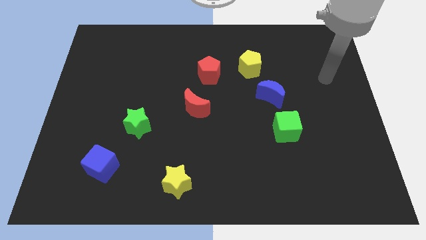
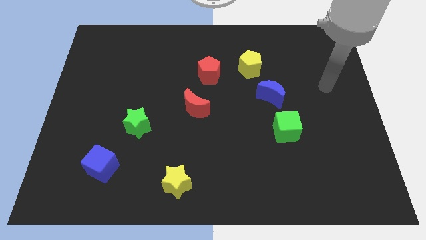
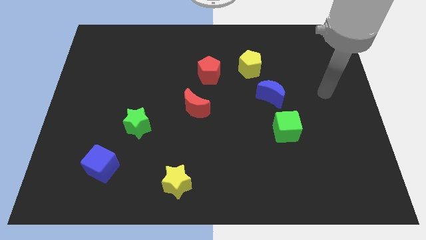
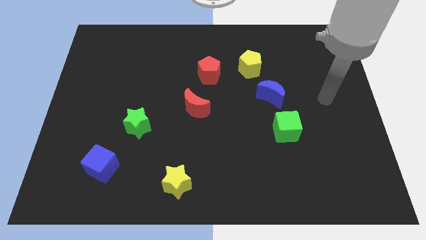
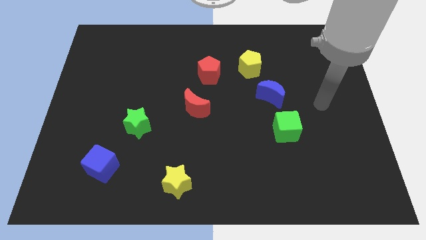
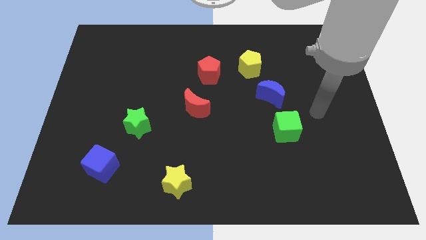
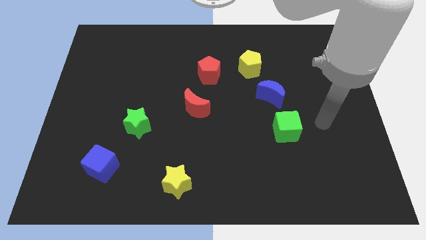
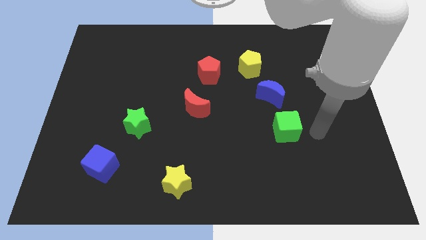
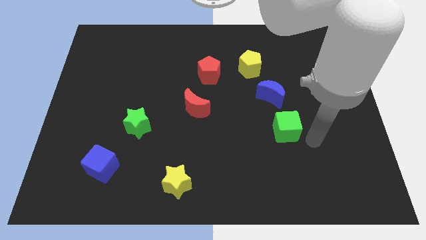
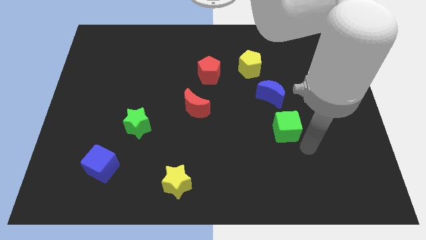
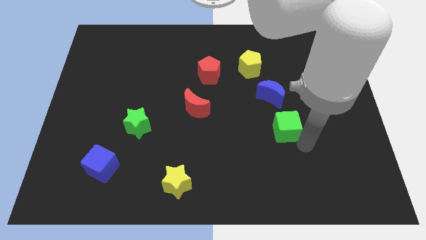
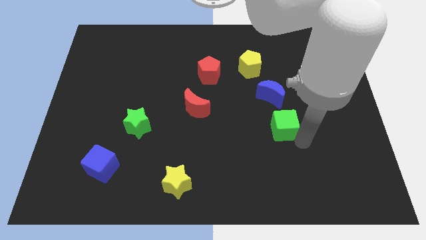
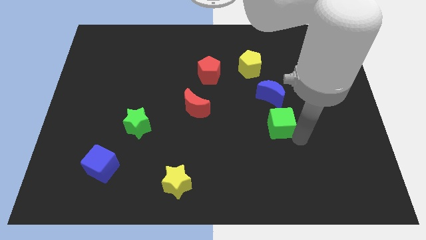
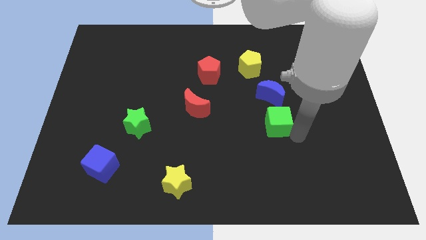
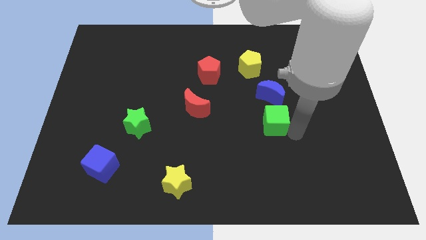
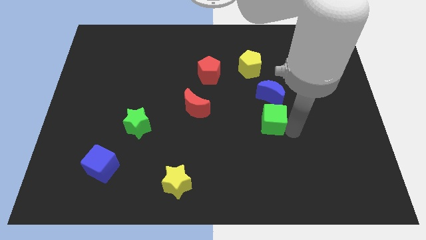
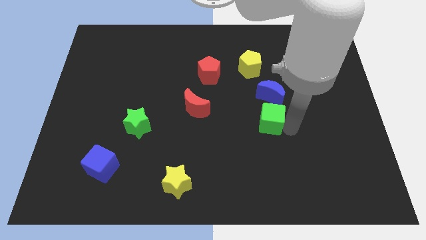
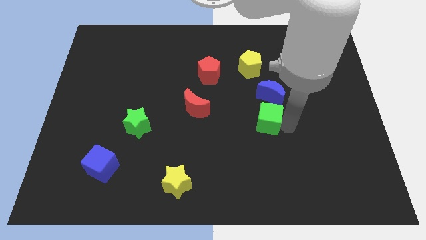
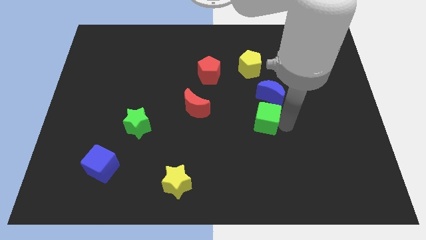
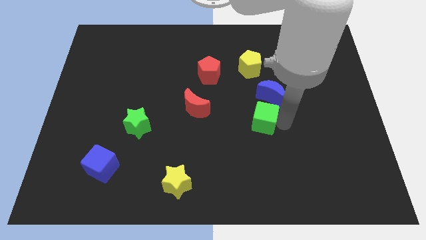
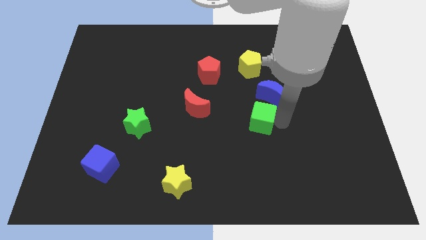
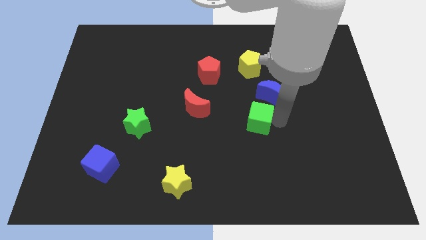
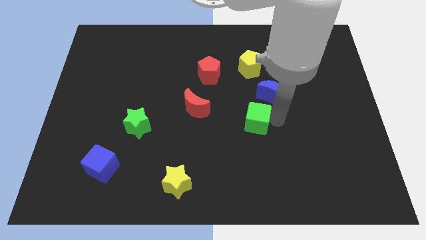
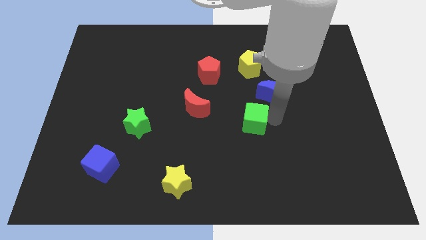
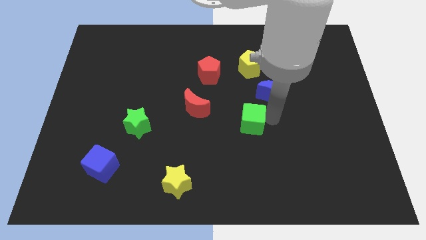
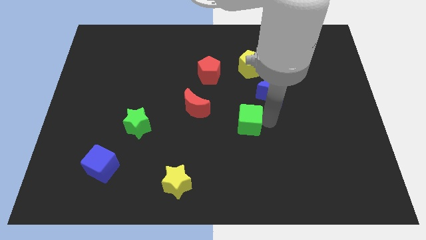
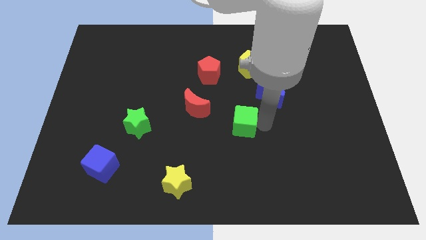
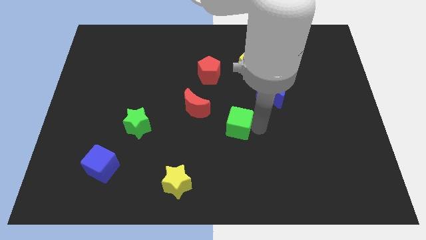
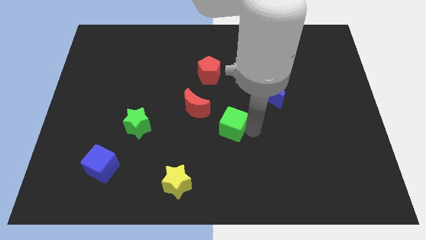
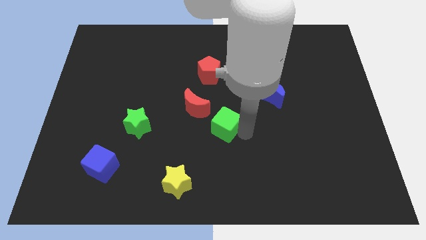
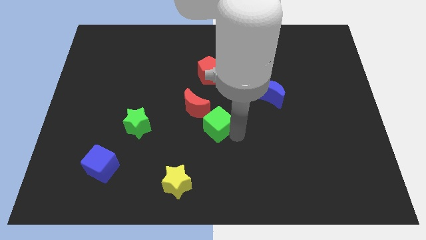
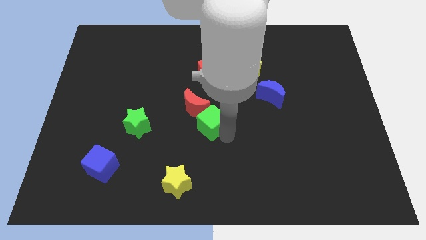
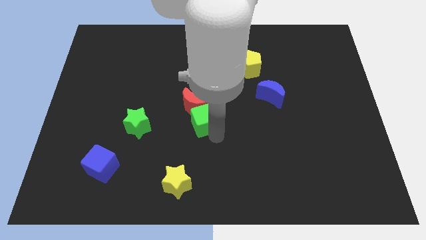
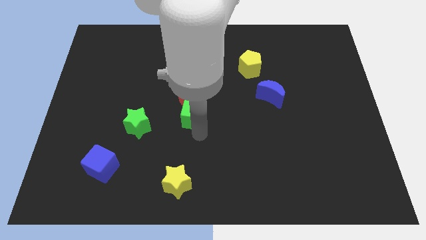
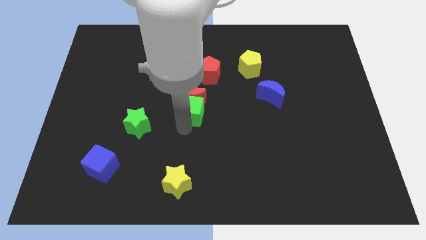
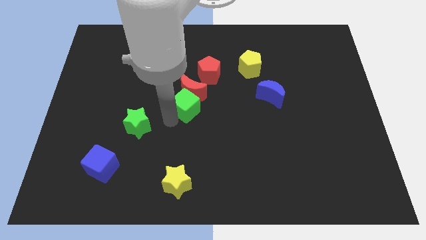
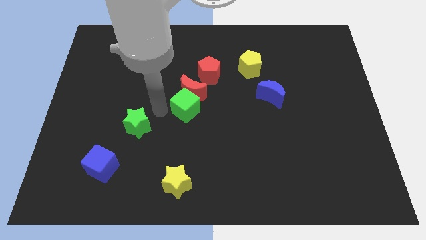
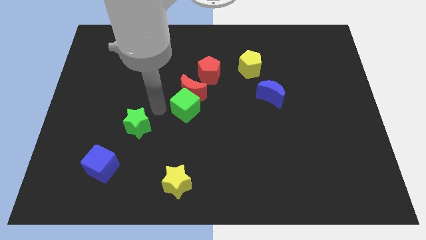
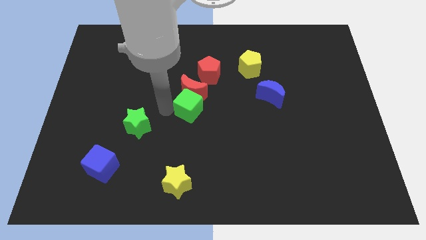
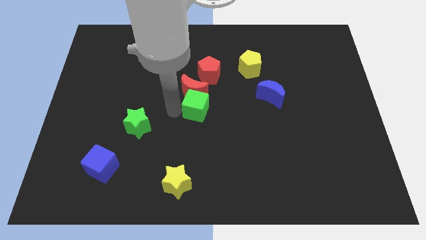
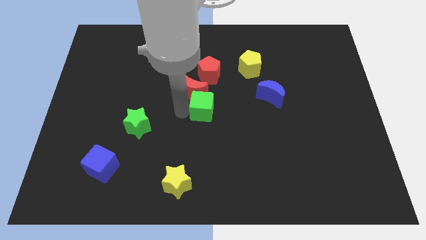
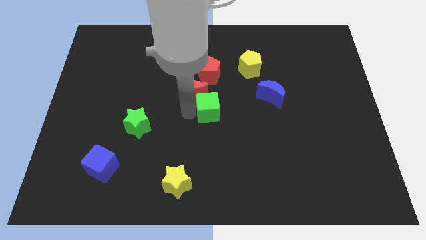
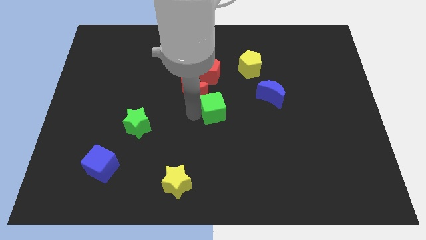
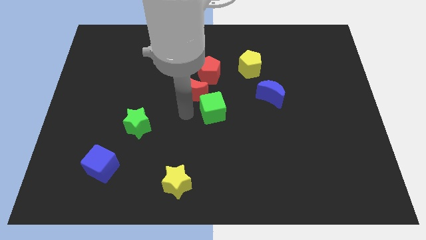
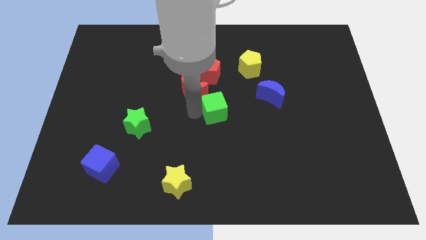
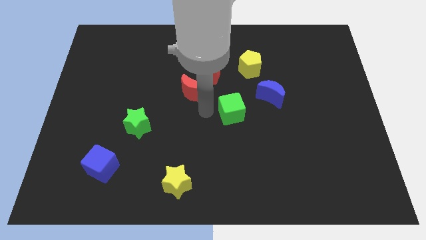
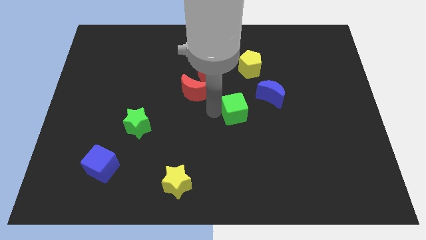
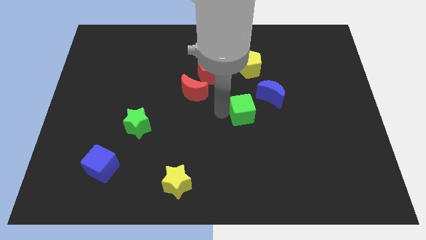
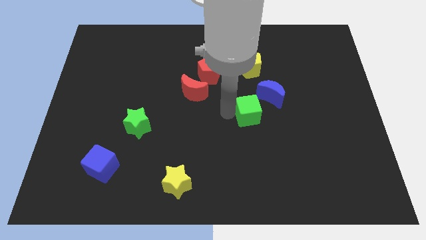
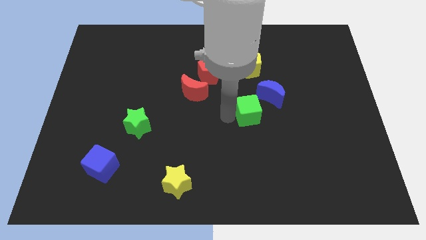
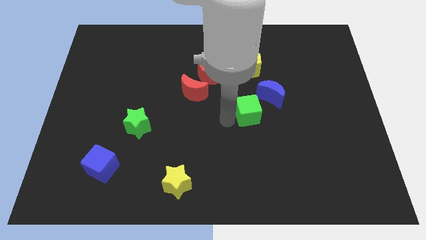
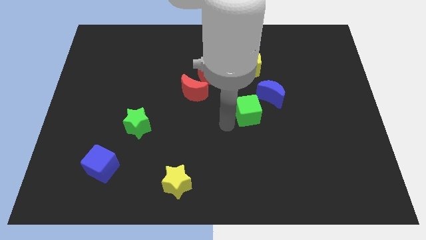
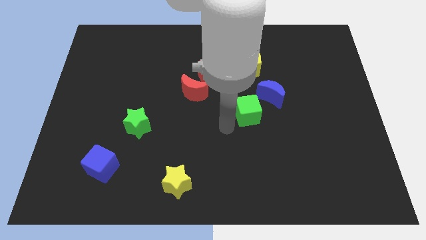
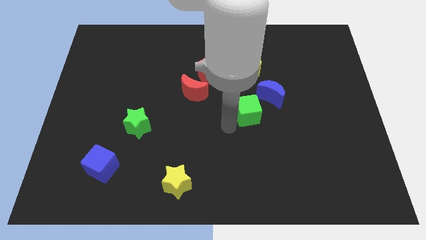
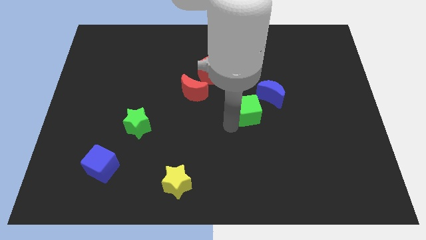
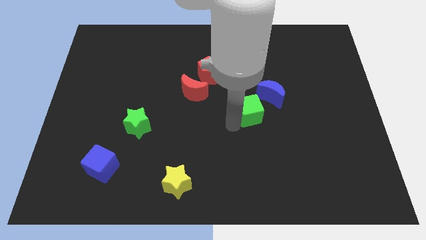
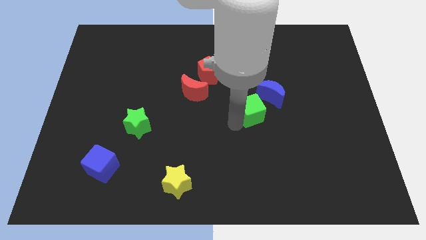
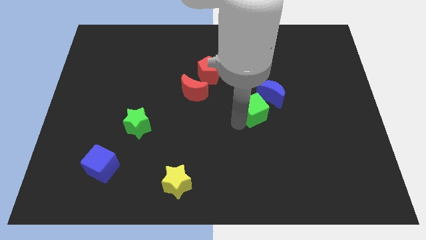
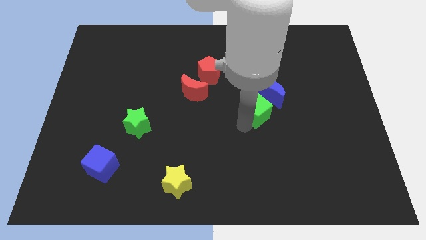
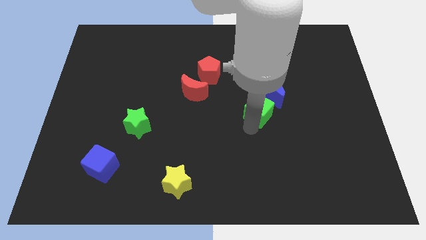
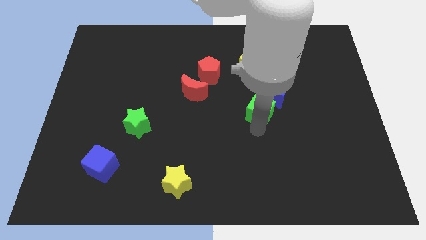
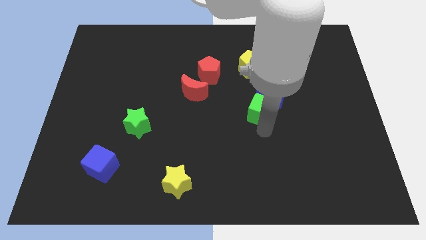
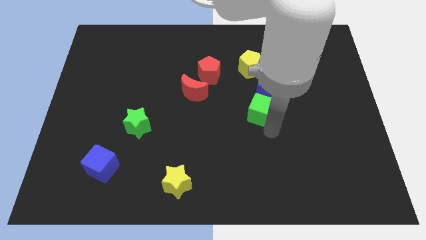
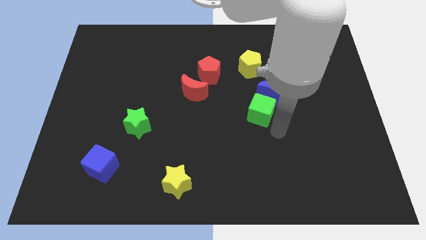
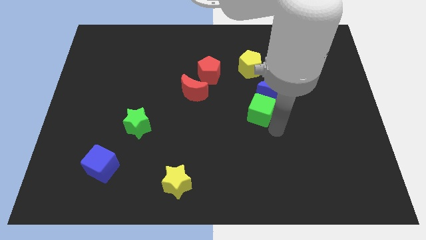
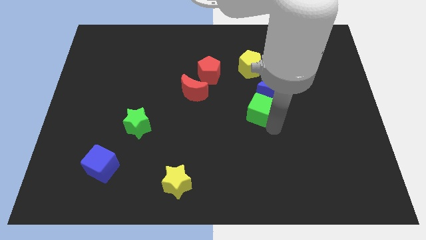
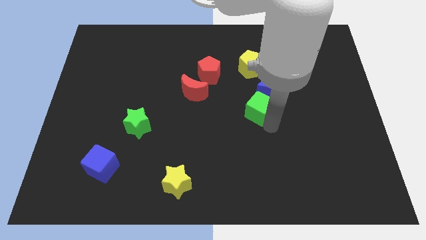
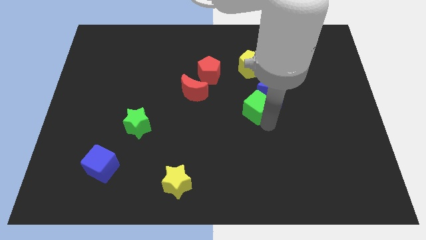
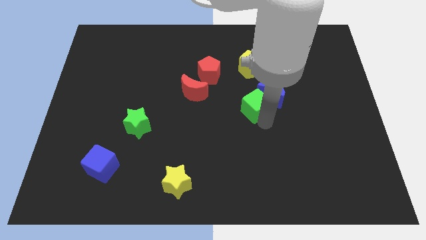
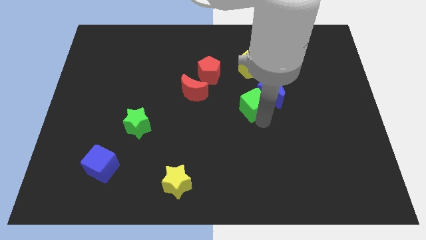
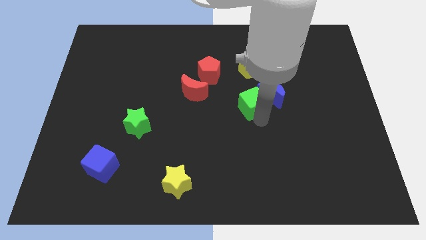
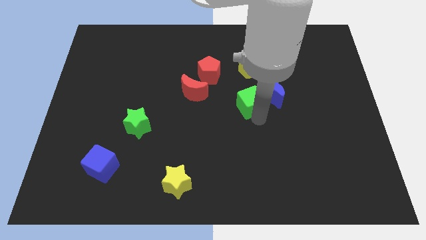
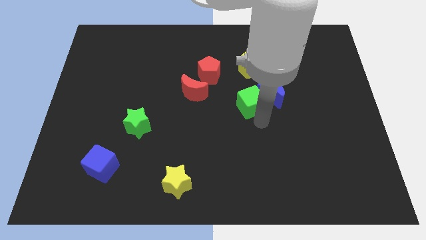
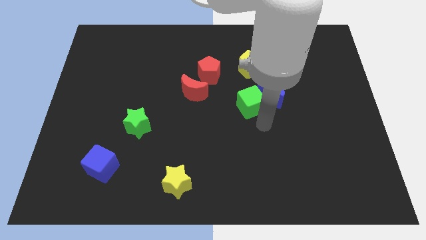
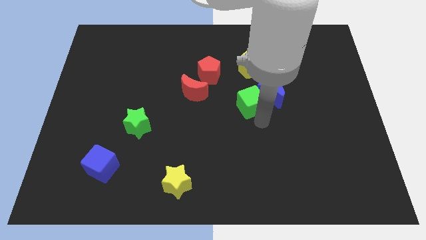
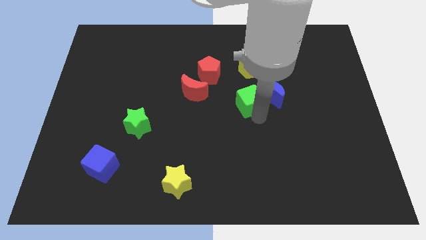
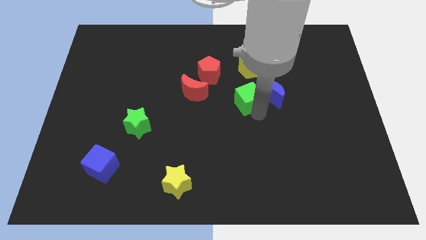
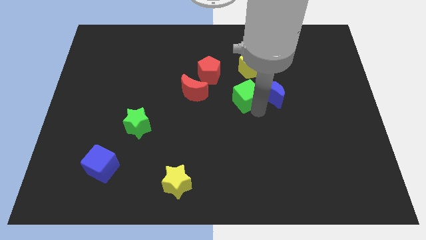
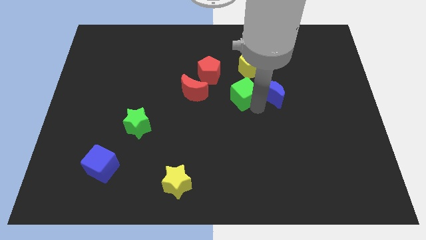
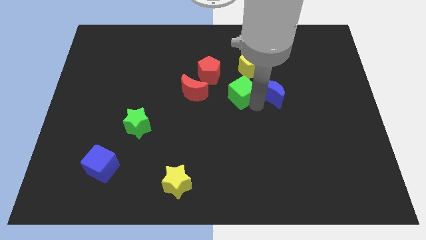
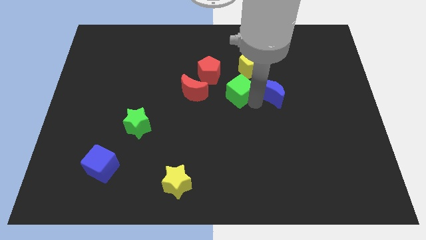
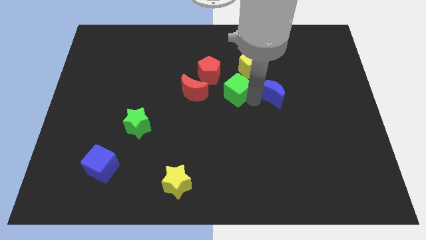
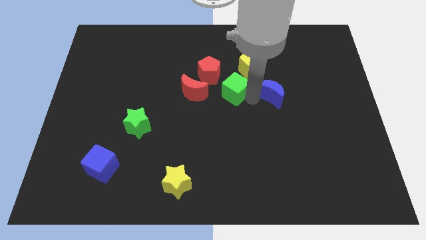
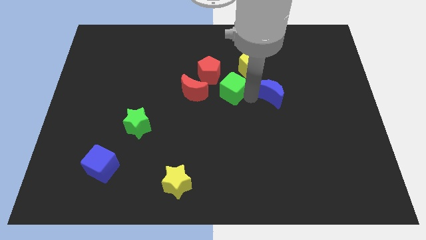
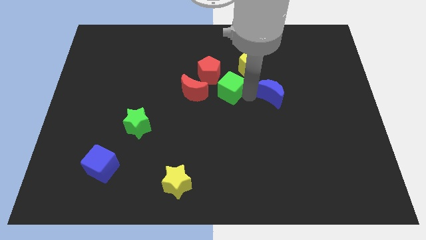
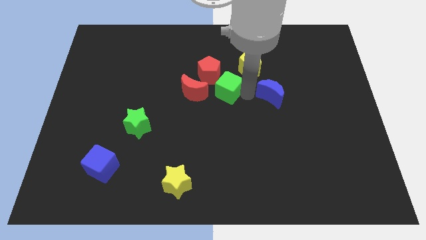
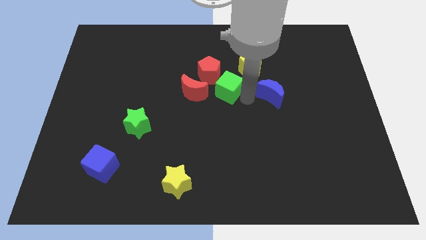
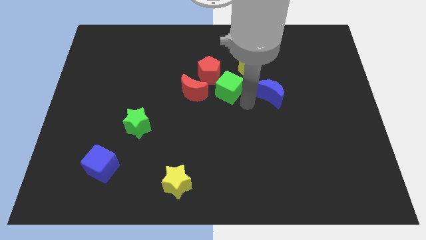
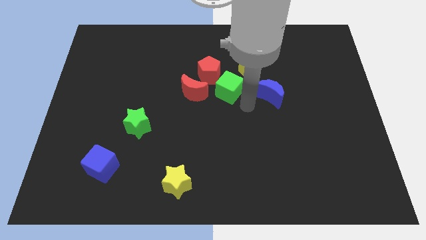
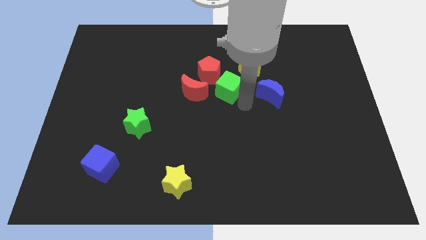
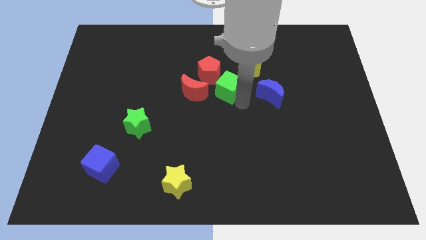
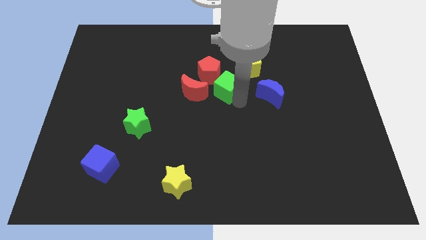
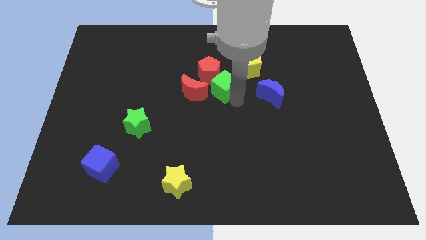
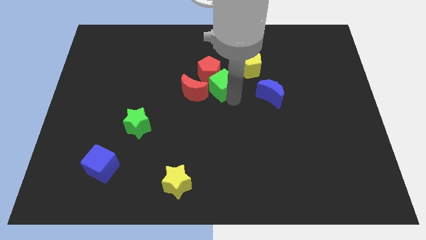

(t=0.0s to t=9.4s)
put the green cube close to the red pentagon
